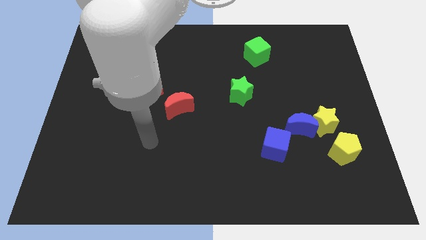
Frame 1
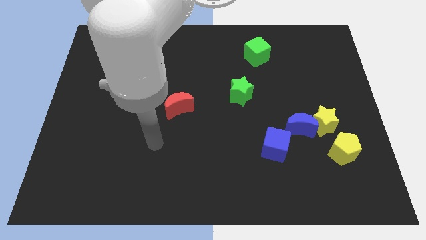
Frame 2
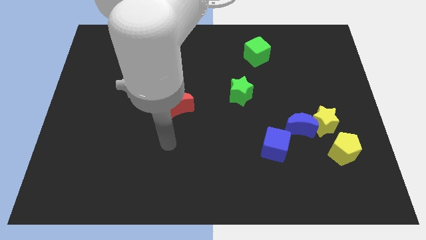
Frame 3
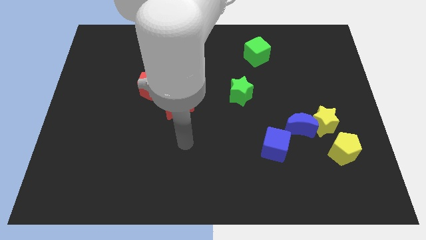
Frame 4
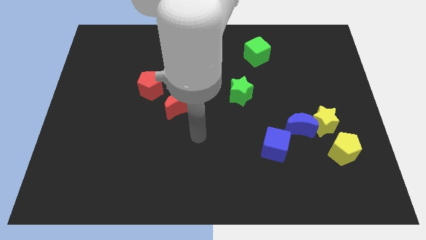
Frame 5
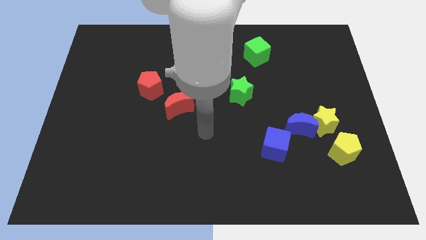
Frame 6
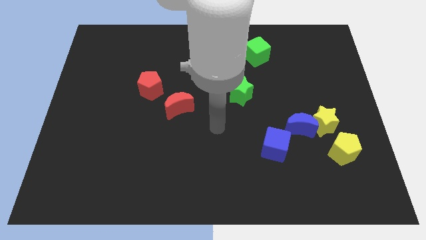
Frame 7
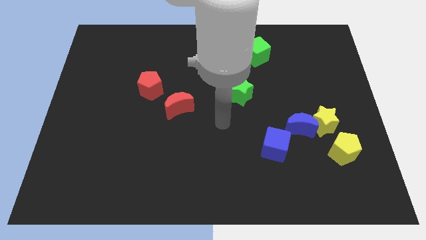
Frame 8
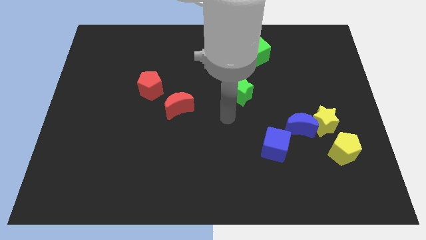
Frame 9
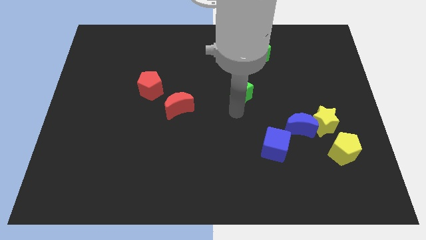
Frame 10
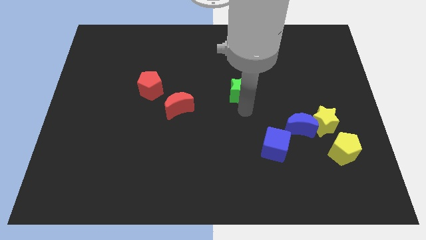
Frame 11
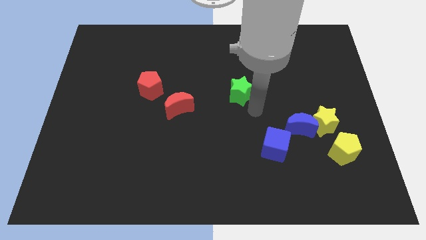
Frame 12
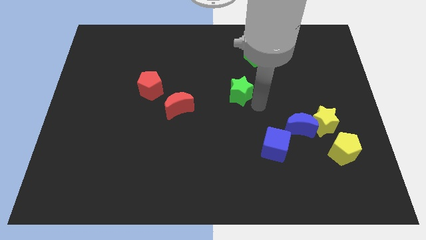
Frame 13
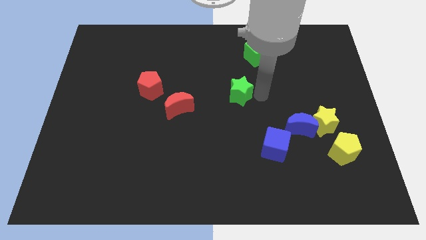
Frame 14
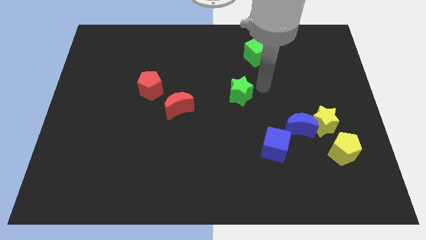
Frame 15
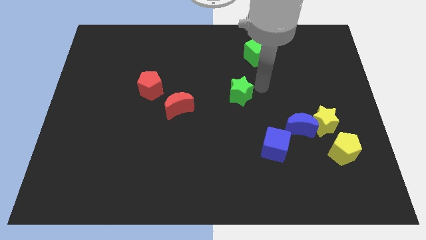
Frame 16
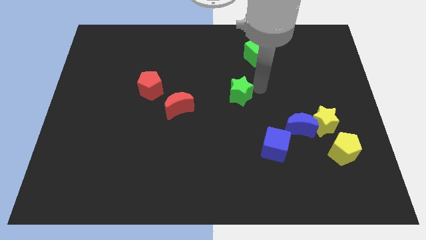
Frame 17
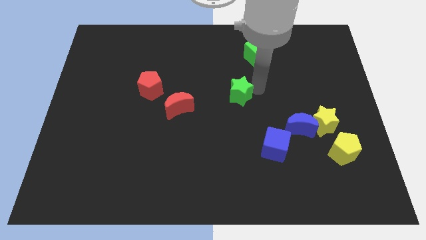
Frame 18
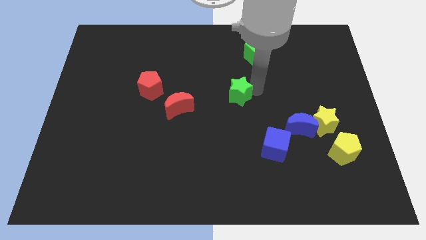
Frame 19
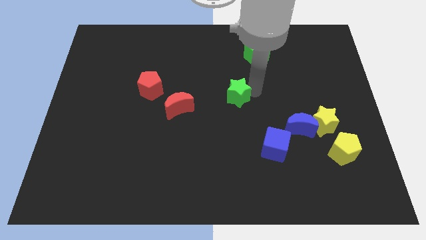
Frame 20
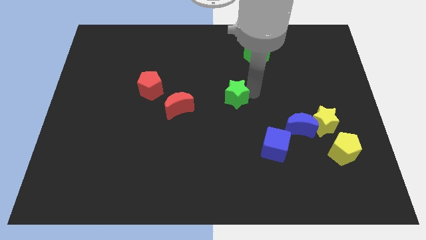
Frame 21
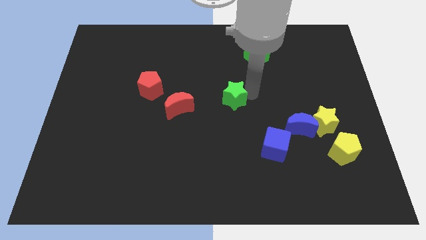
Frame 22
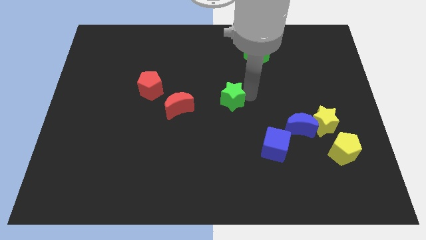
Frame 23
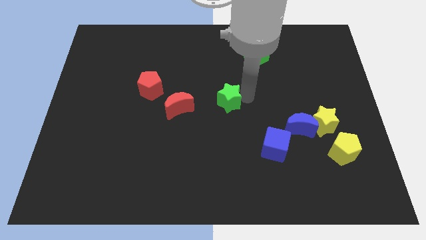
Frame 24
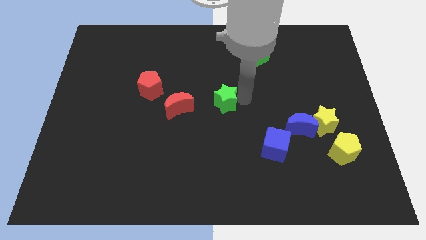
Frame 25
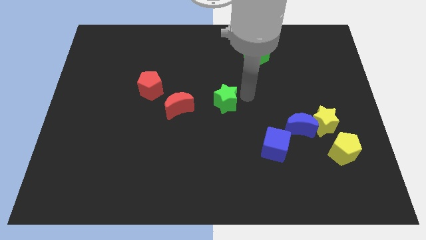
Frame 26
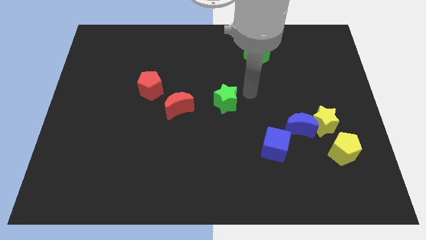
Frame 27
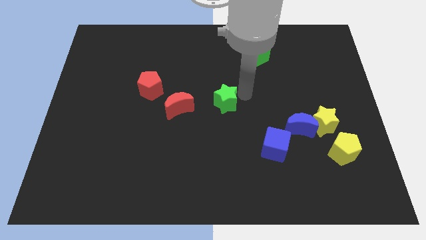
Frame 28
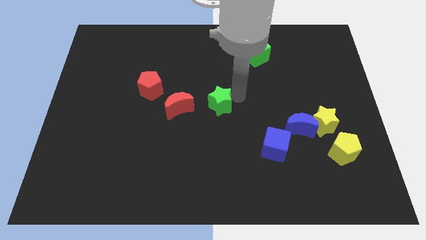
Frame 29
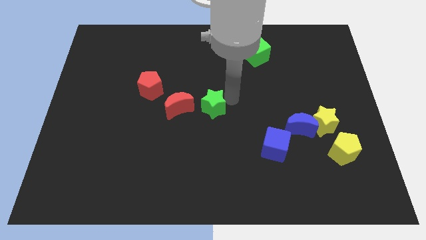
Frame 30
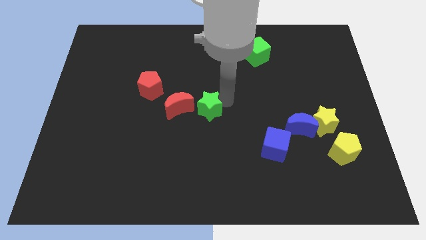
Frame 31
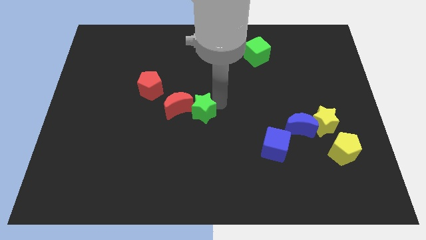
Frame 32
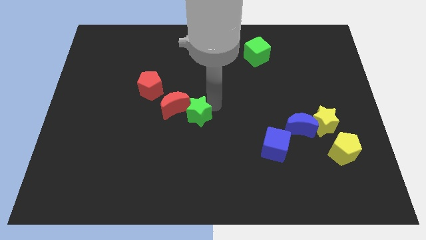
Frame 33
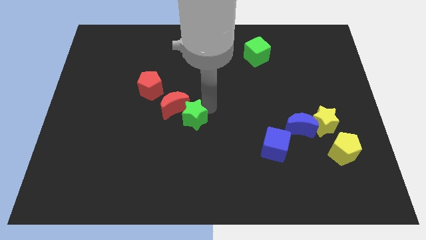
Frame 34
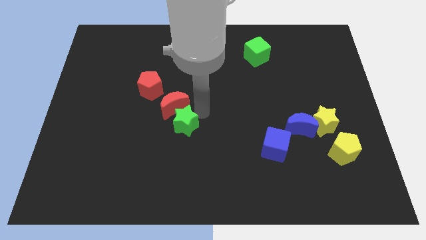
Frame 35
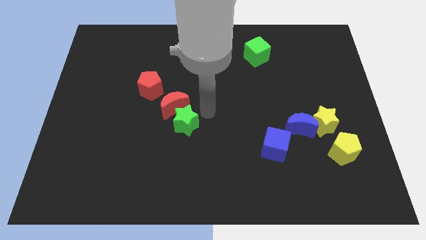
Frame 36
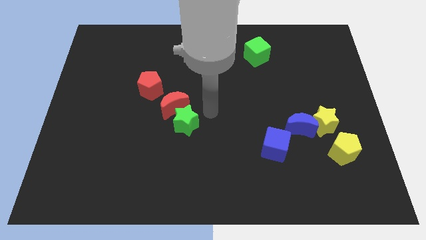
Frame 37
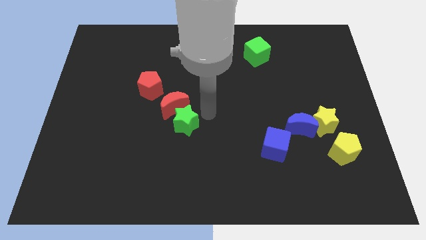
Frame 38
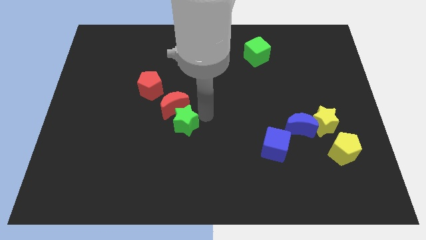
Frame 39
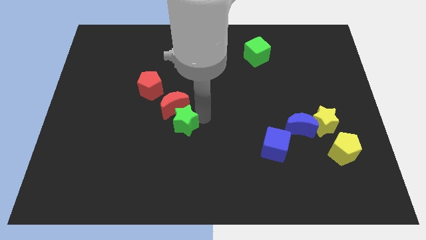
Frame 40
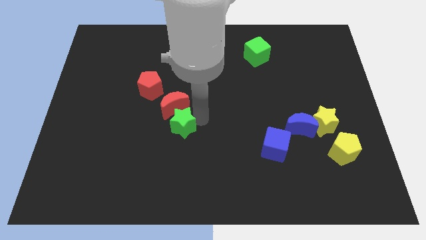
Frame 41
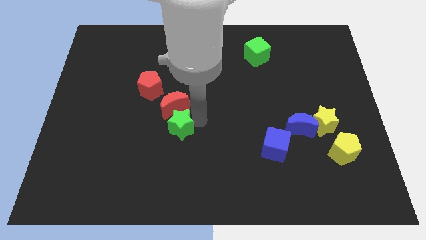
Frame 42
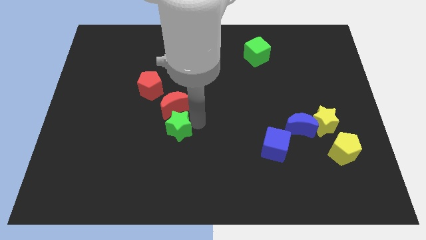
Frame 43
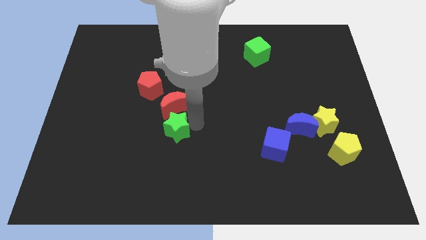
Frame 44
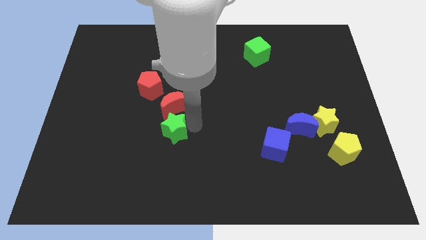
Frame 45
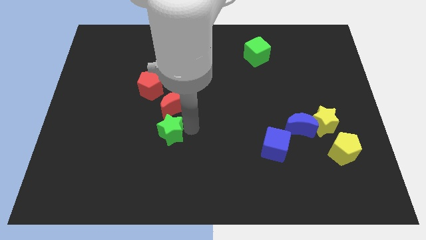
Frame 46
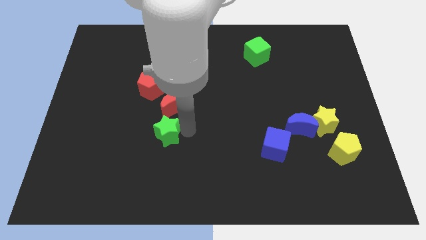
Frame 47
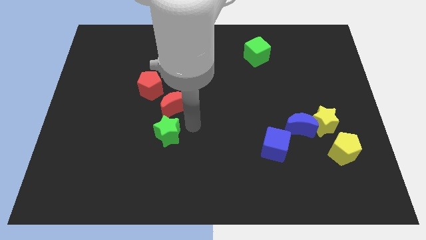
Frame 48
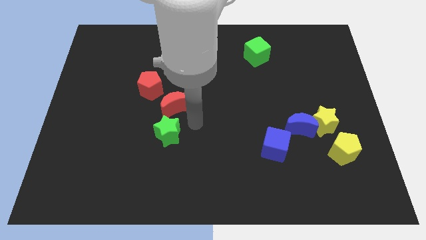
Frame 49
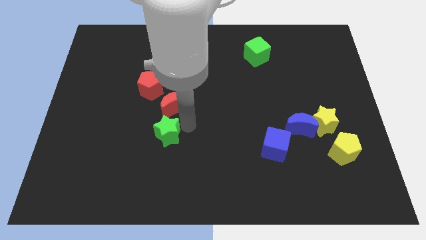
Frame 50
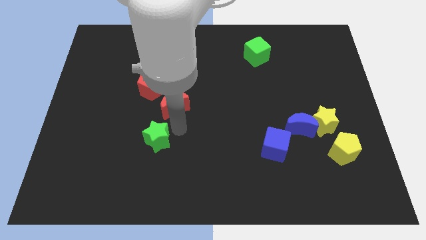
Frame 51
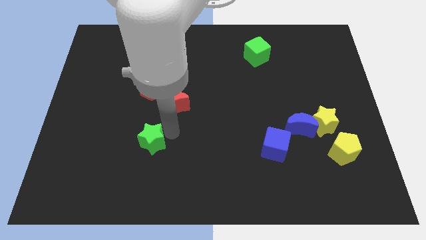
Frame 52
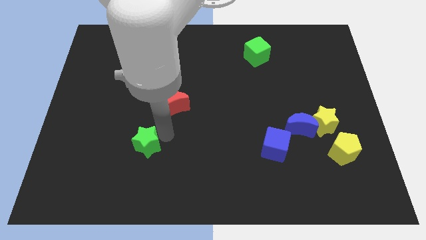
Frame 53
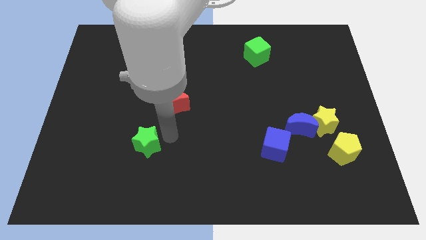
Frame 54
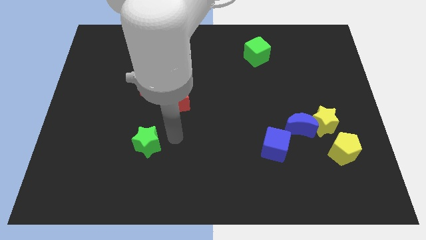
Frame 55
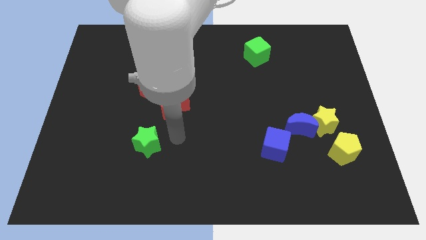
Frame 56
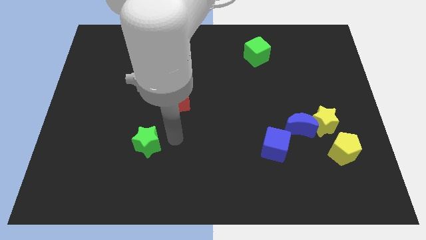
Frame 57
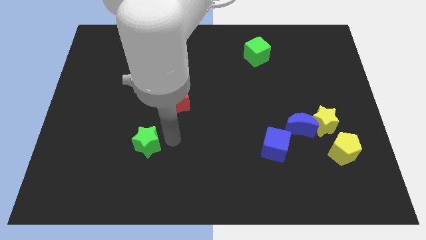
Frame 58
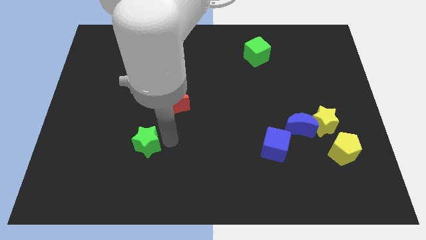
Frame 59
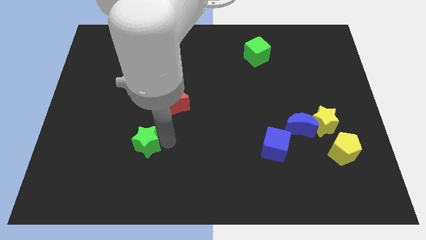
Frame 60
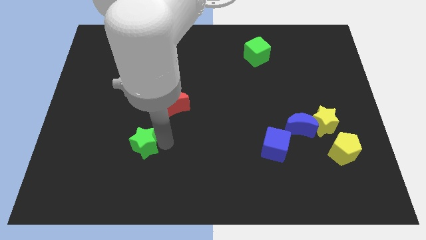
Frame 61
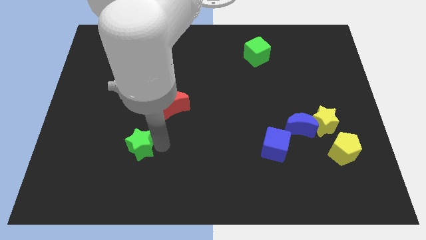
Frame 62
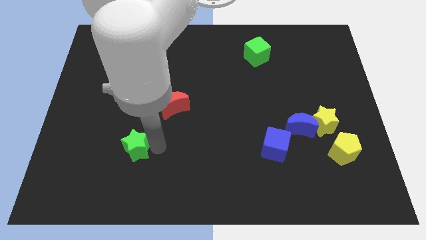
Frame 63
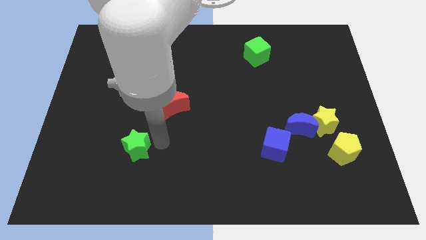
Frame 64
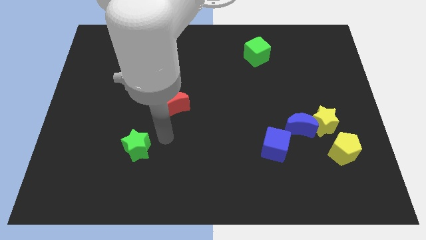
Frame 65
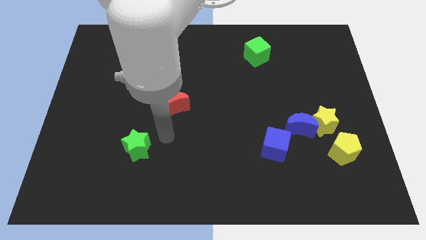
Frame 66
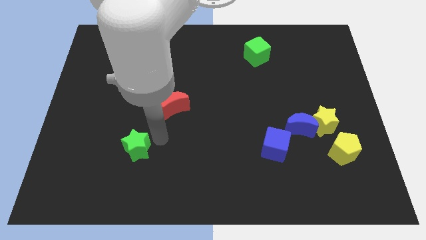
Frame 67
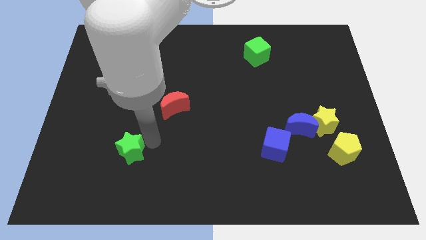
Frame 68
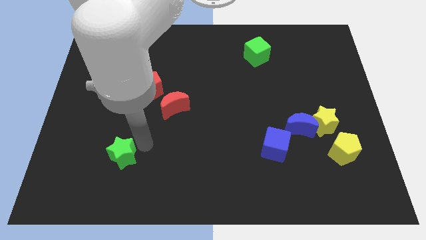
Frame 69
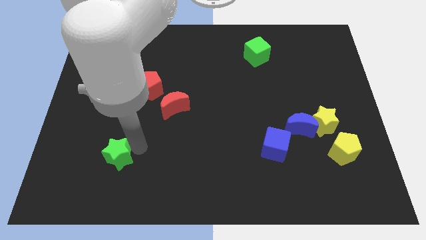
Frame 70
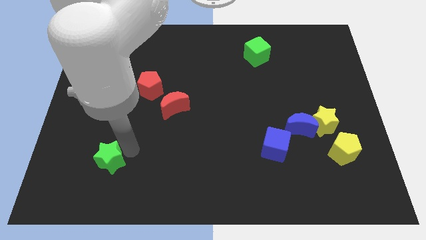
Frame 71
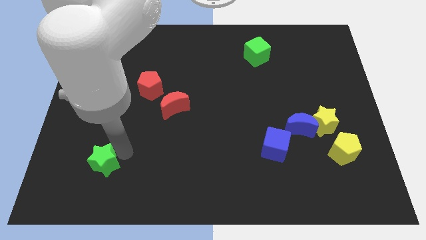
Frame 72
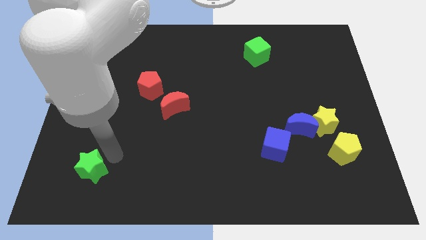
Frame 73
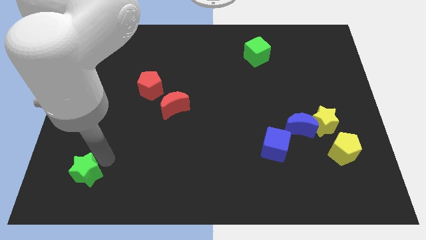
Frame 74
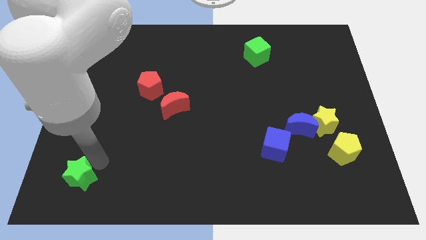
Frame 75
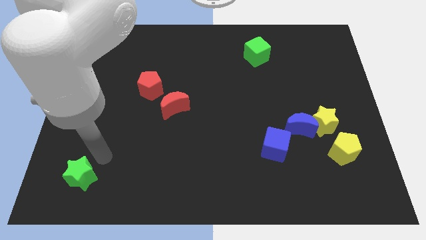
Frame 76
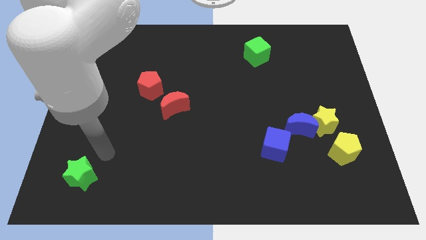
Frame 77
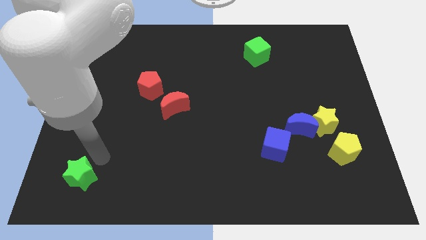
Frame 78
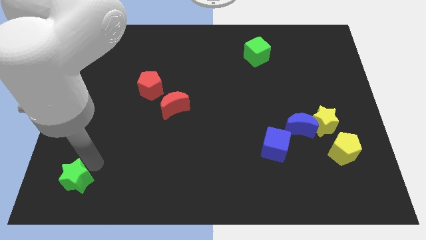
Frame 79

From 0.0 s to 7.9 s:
slide the green star to the bottom left
